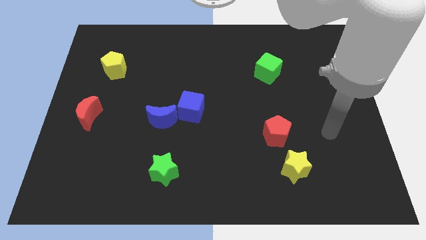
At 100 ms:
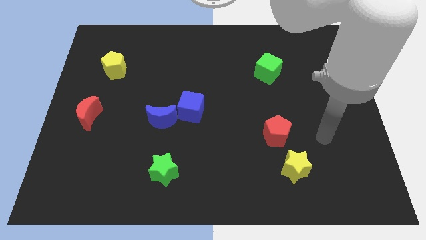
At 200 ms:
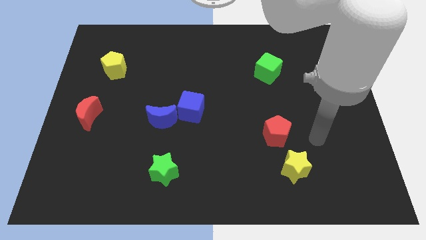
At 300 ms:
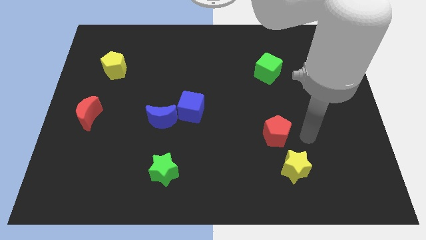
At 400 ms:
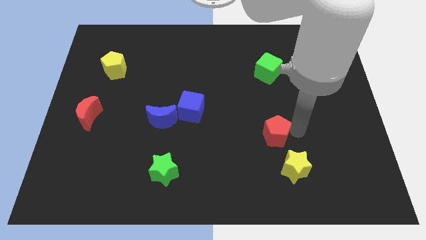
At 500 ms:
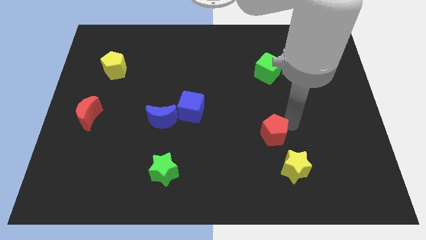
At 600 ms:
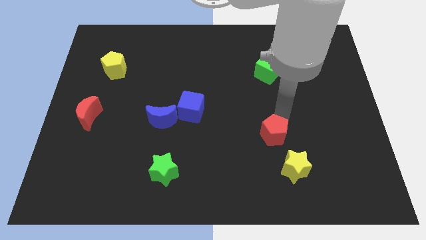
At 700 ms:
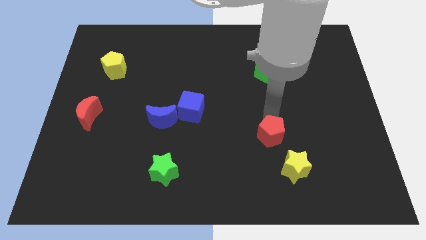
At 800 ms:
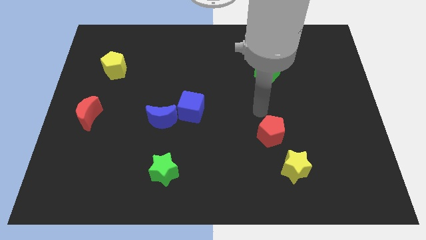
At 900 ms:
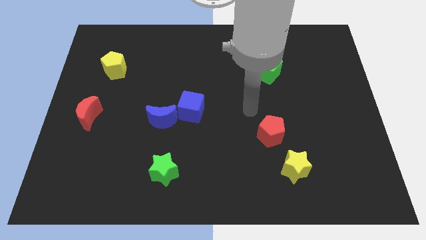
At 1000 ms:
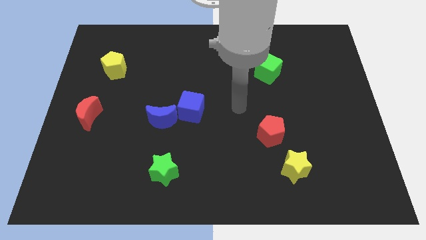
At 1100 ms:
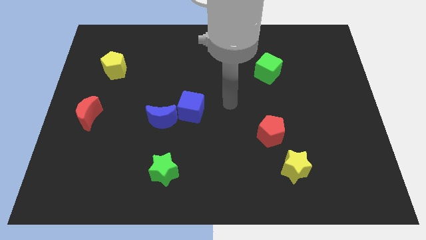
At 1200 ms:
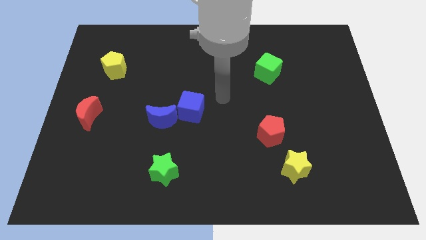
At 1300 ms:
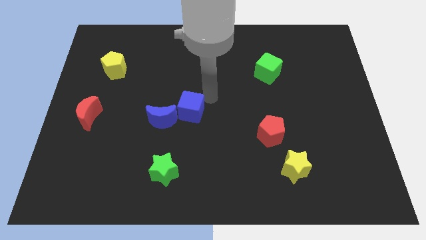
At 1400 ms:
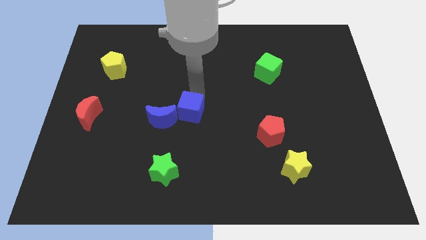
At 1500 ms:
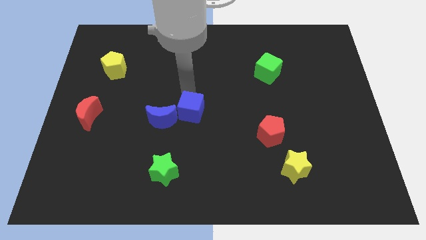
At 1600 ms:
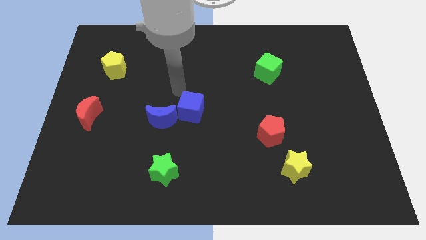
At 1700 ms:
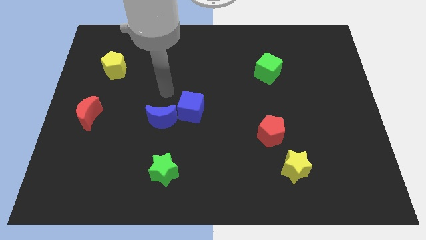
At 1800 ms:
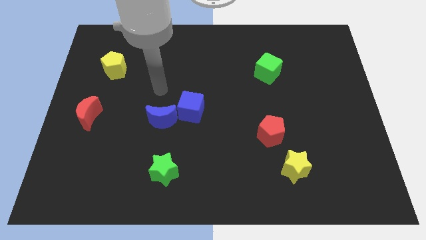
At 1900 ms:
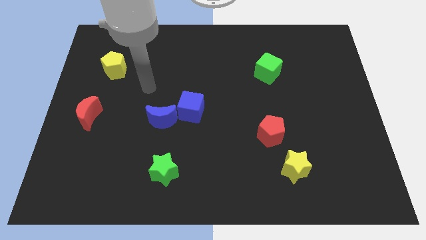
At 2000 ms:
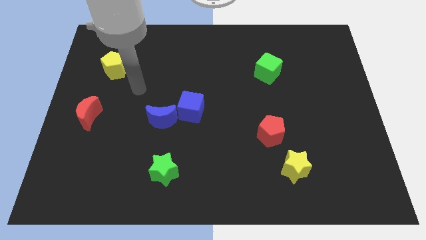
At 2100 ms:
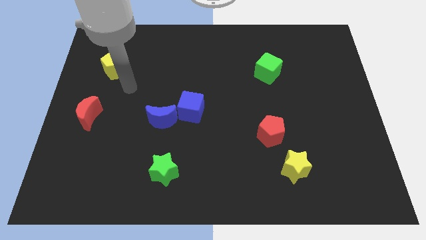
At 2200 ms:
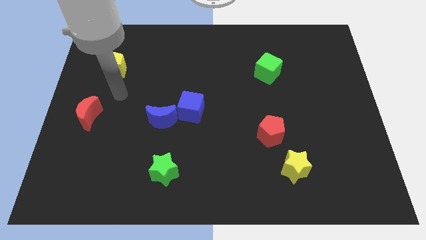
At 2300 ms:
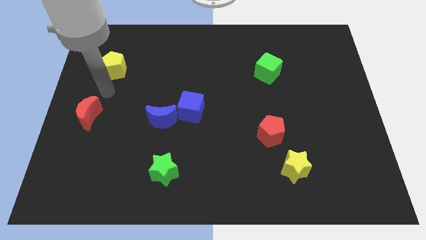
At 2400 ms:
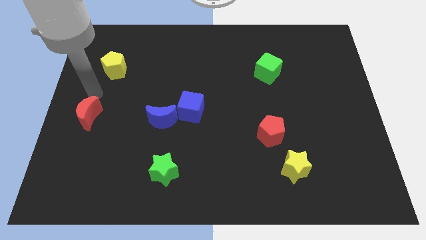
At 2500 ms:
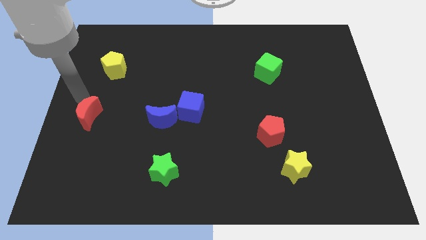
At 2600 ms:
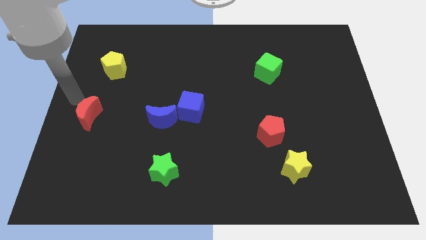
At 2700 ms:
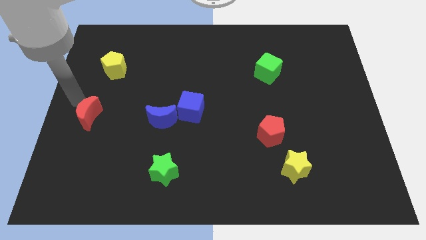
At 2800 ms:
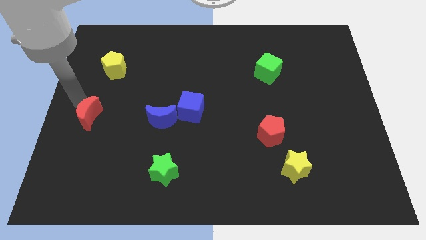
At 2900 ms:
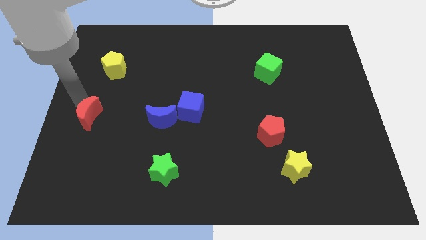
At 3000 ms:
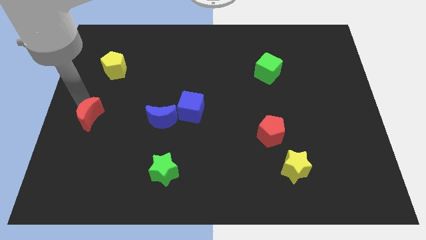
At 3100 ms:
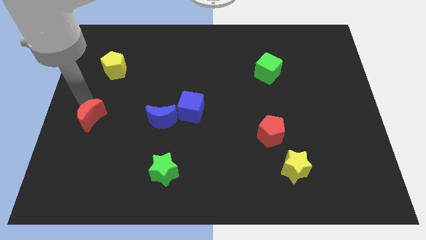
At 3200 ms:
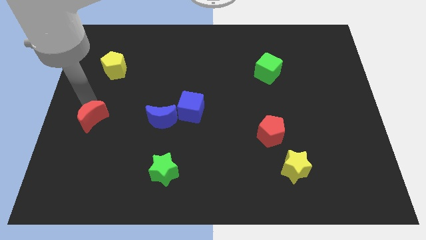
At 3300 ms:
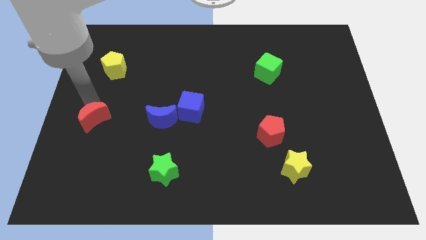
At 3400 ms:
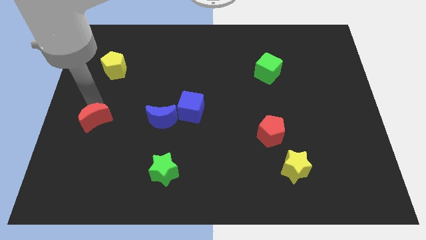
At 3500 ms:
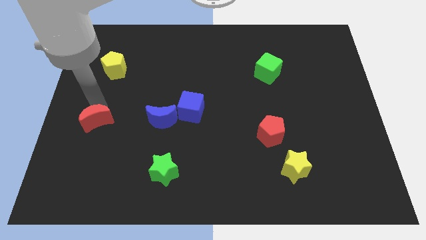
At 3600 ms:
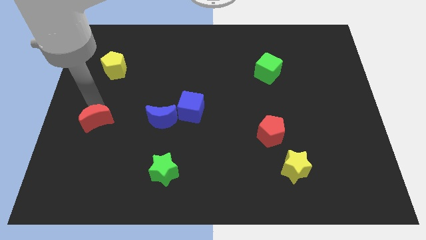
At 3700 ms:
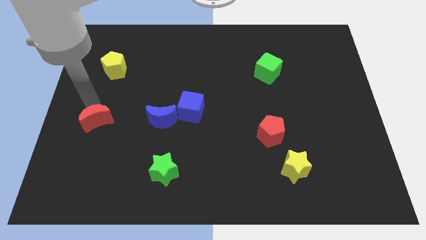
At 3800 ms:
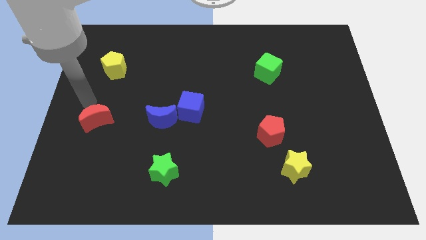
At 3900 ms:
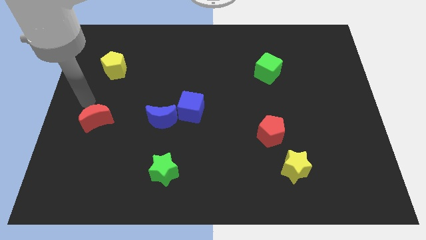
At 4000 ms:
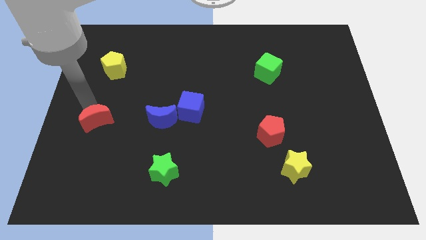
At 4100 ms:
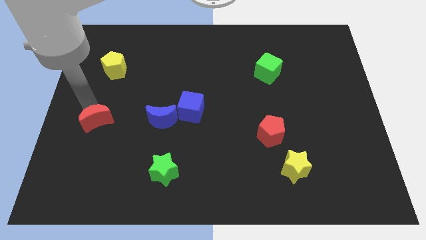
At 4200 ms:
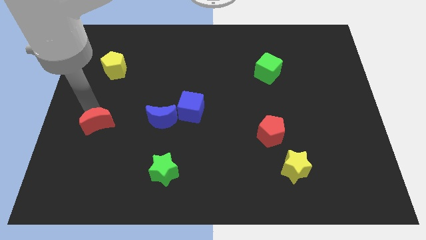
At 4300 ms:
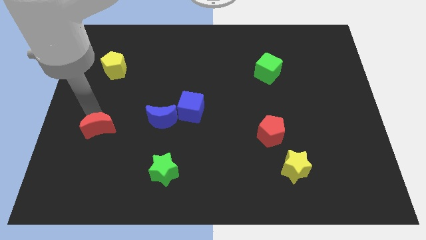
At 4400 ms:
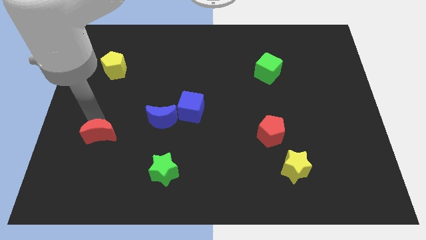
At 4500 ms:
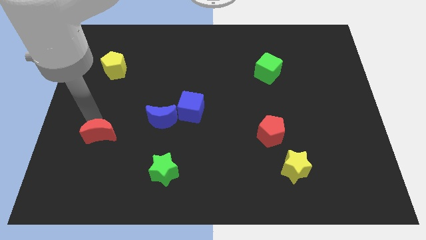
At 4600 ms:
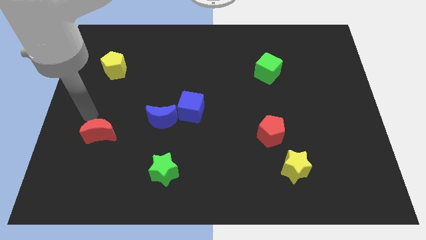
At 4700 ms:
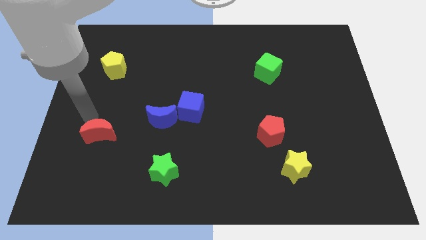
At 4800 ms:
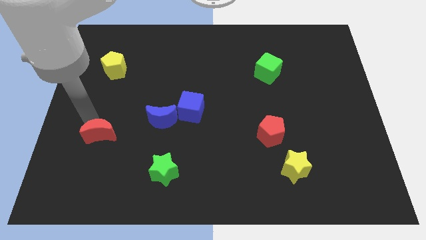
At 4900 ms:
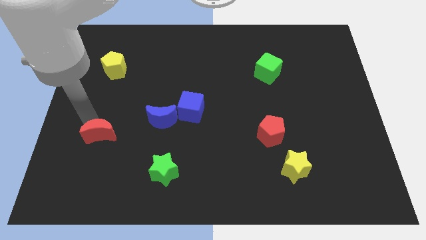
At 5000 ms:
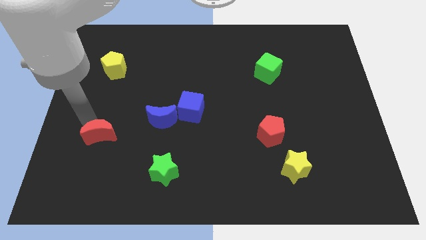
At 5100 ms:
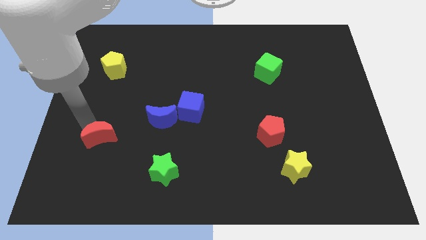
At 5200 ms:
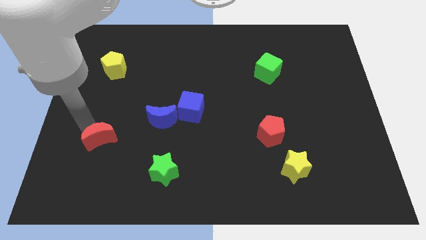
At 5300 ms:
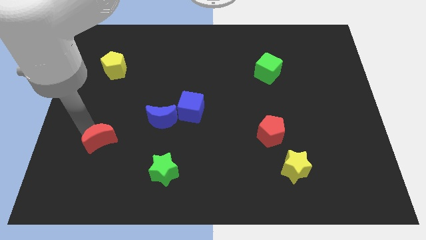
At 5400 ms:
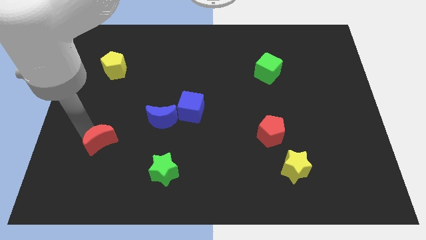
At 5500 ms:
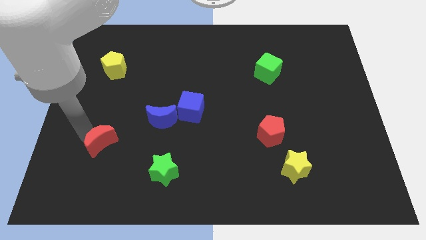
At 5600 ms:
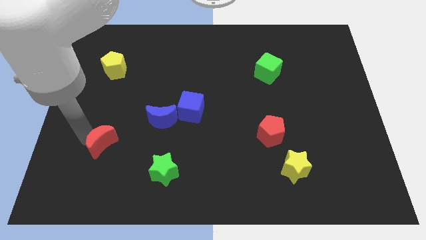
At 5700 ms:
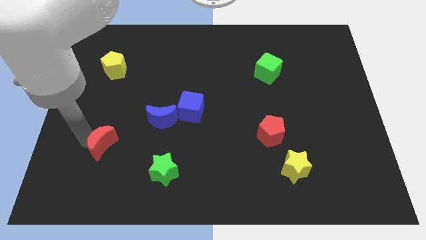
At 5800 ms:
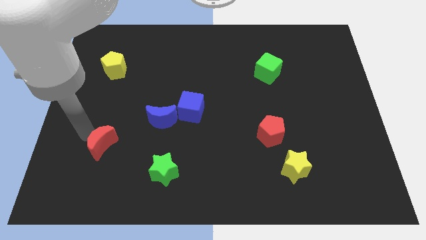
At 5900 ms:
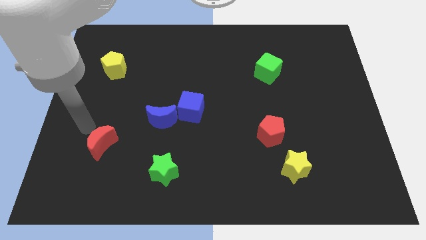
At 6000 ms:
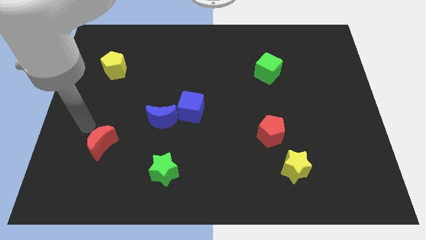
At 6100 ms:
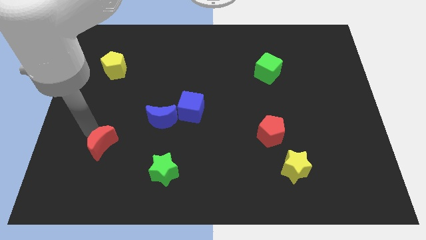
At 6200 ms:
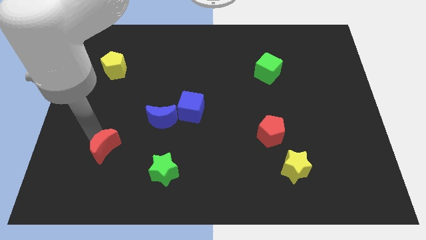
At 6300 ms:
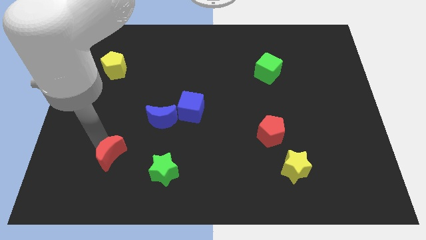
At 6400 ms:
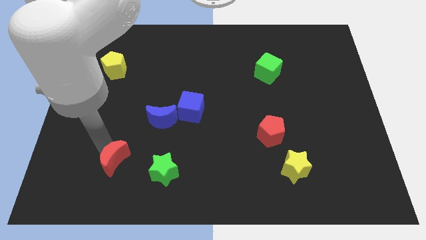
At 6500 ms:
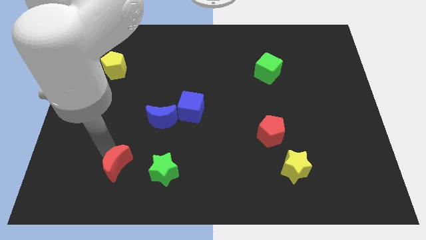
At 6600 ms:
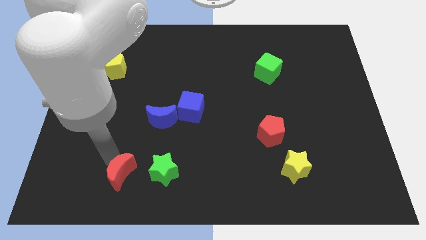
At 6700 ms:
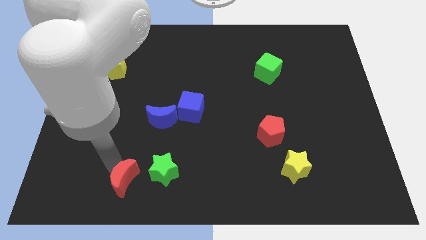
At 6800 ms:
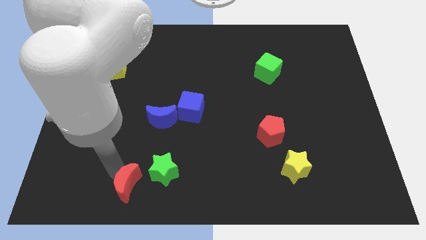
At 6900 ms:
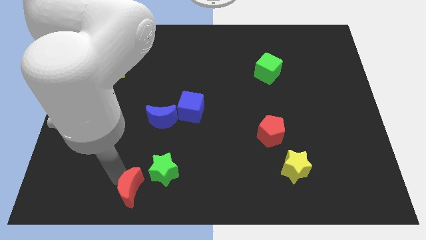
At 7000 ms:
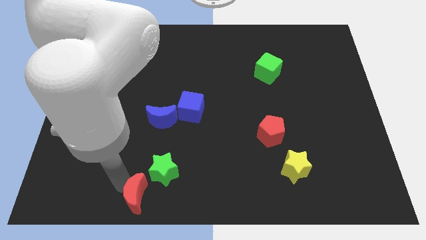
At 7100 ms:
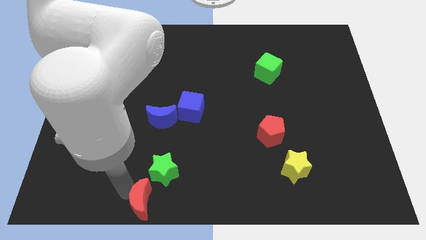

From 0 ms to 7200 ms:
slide the red moon to the bottom side
